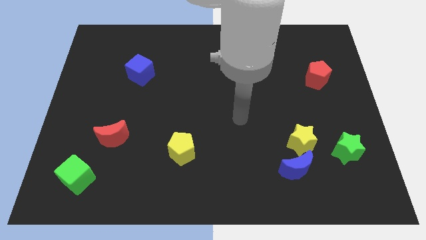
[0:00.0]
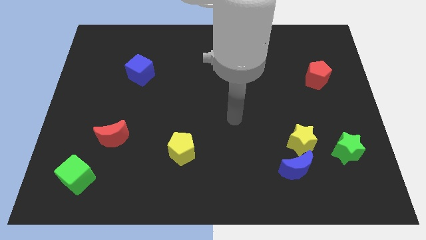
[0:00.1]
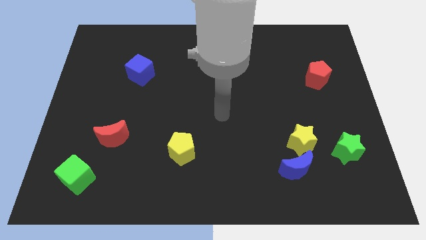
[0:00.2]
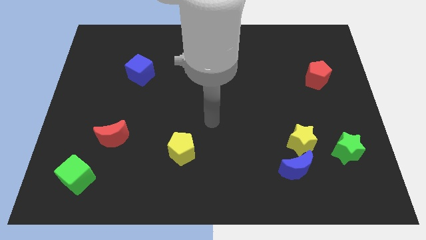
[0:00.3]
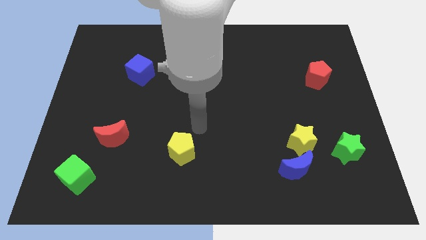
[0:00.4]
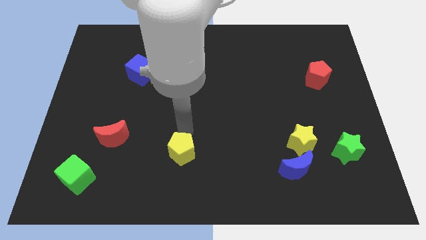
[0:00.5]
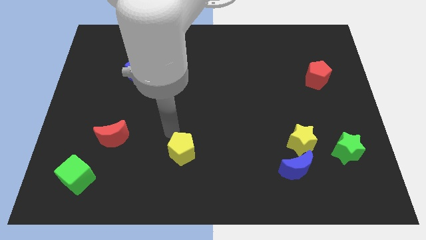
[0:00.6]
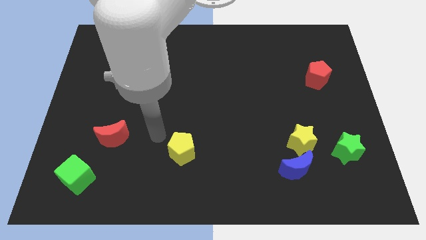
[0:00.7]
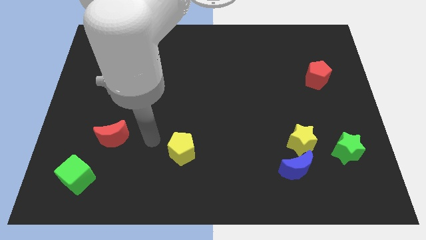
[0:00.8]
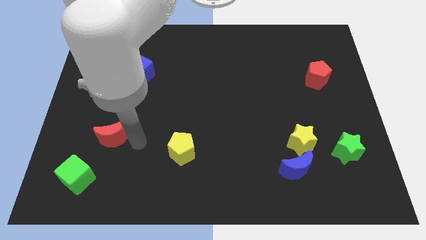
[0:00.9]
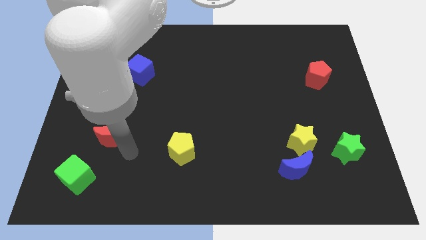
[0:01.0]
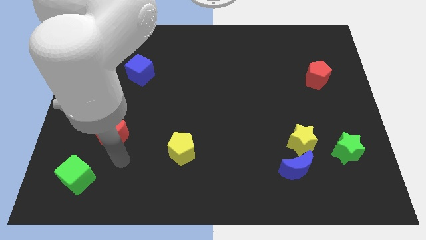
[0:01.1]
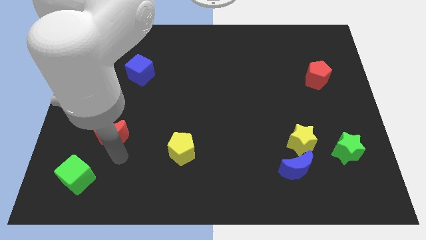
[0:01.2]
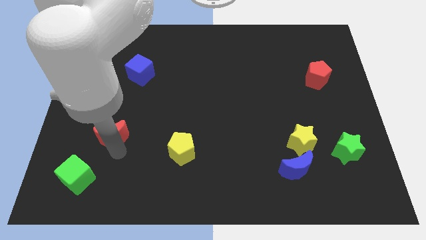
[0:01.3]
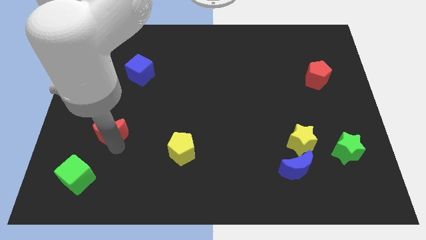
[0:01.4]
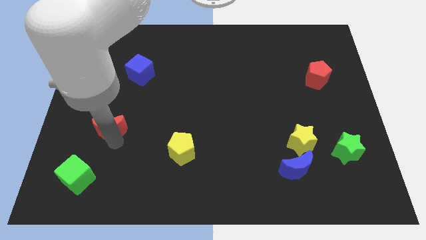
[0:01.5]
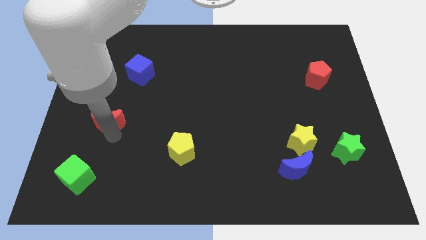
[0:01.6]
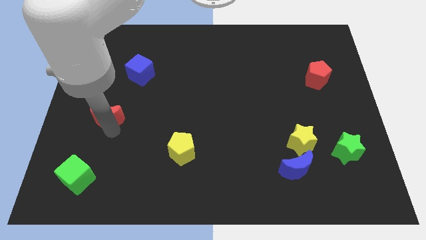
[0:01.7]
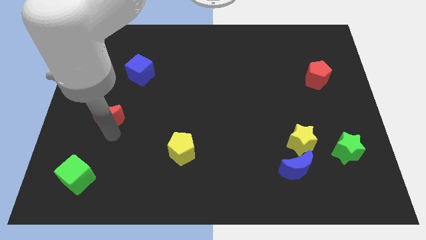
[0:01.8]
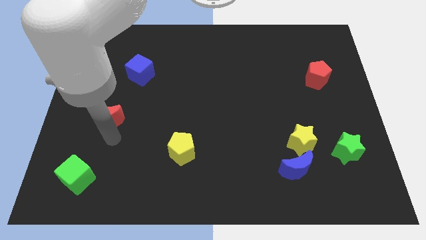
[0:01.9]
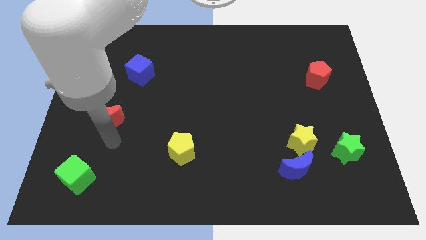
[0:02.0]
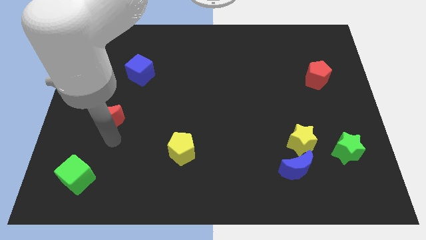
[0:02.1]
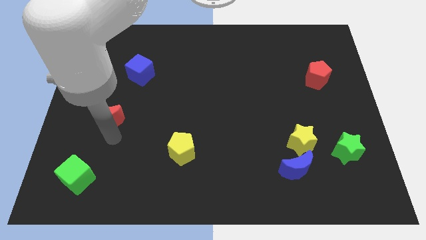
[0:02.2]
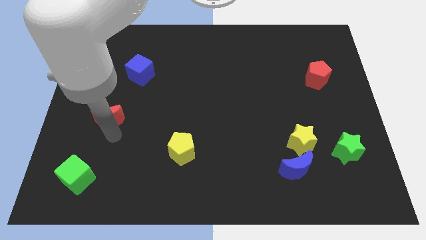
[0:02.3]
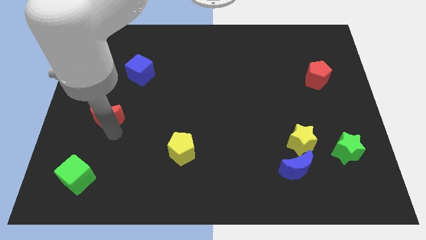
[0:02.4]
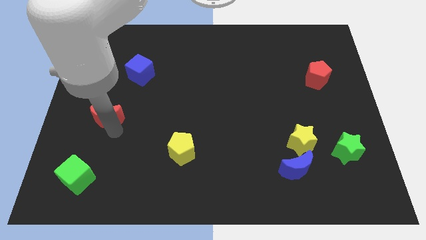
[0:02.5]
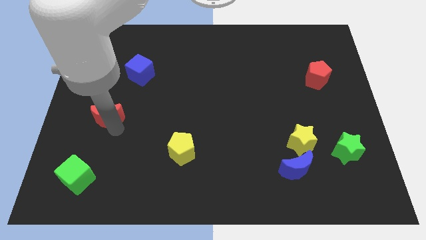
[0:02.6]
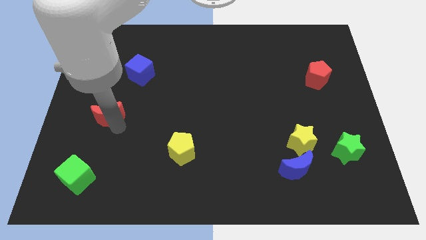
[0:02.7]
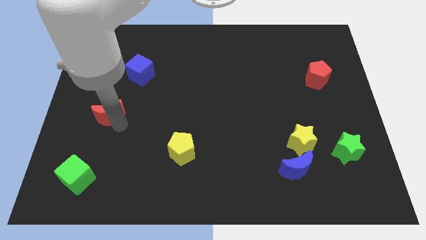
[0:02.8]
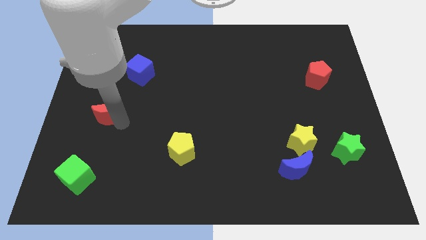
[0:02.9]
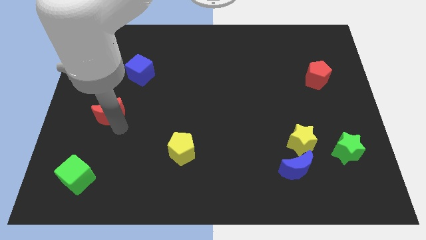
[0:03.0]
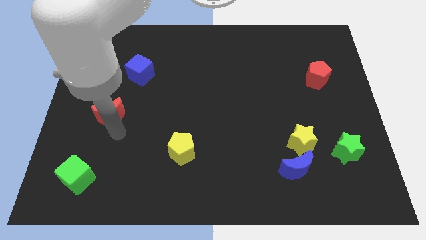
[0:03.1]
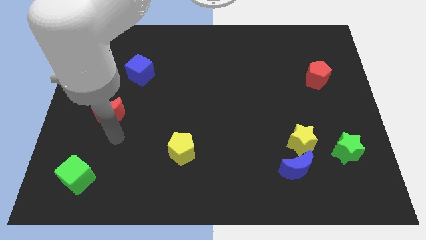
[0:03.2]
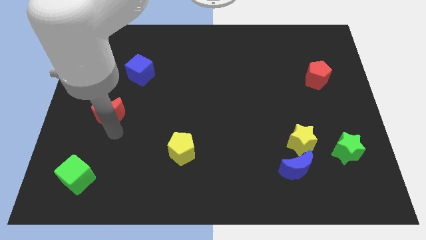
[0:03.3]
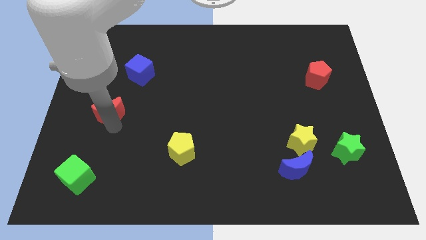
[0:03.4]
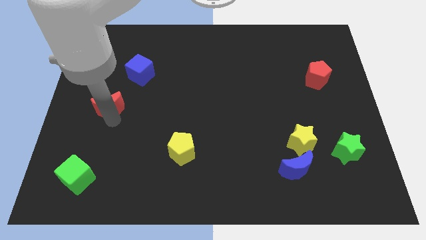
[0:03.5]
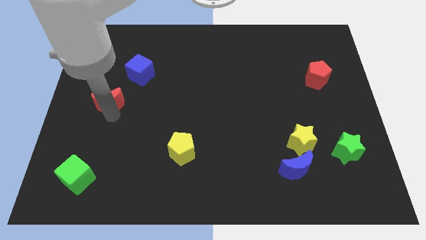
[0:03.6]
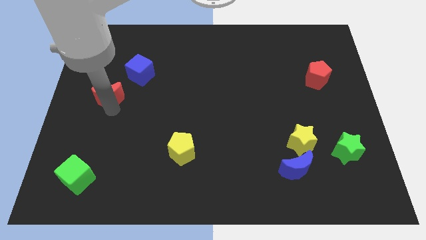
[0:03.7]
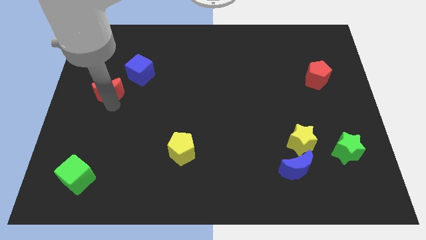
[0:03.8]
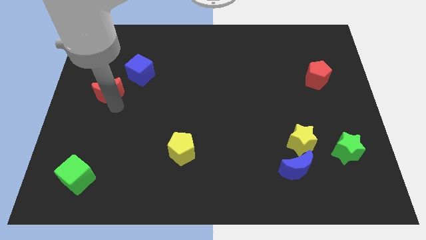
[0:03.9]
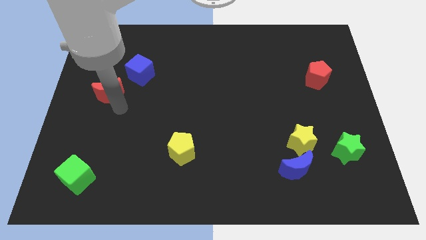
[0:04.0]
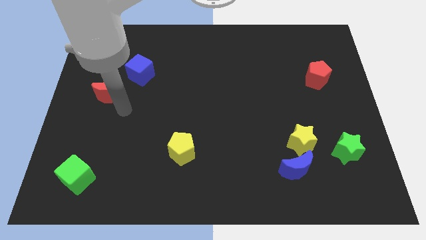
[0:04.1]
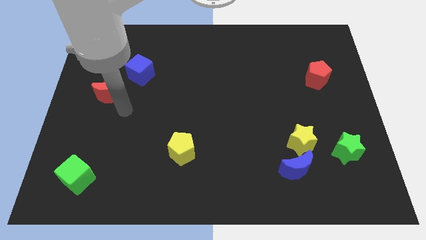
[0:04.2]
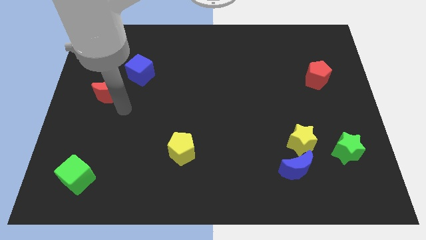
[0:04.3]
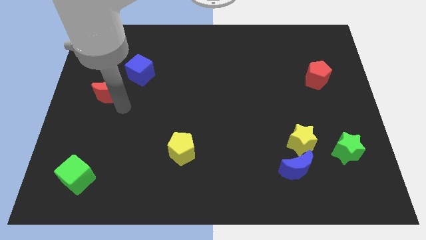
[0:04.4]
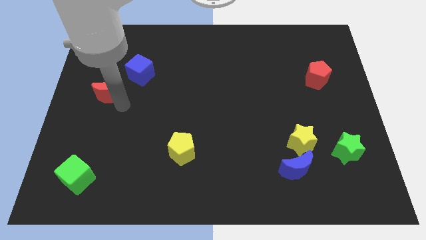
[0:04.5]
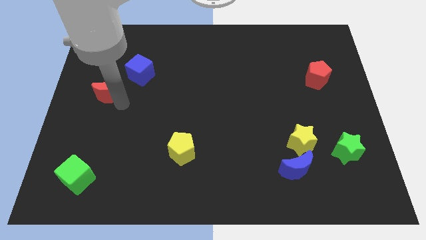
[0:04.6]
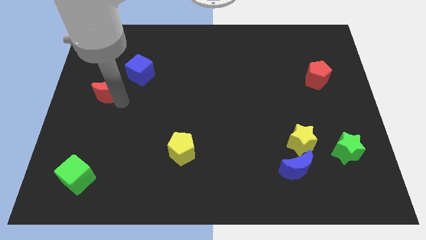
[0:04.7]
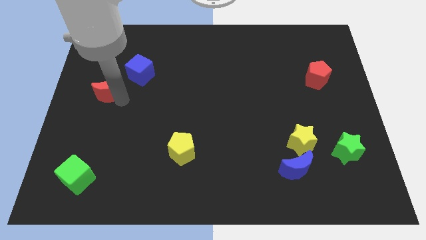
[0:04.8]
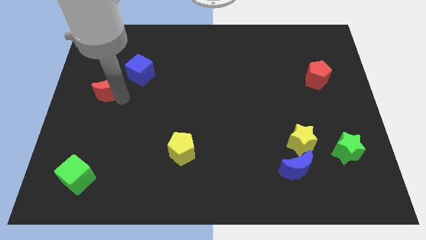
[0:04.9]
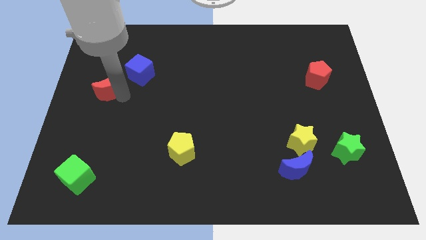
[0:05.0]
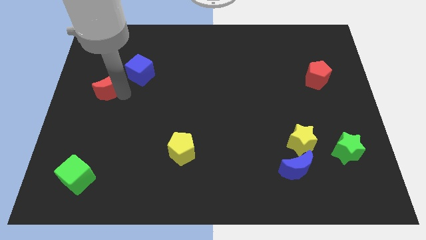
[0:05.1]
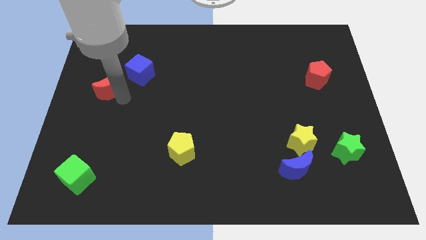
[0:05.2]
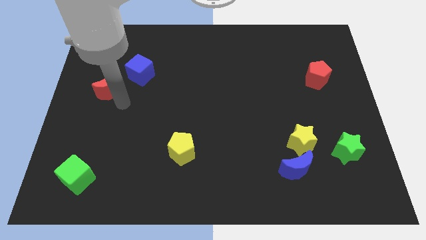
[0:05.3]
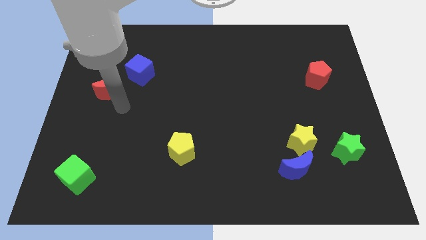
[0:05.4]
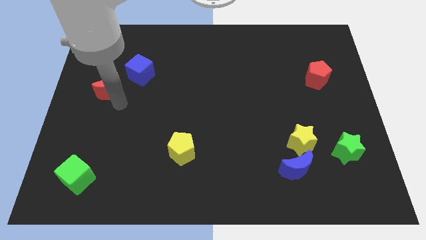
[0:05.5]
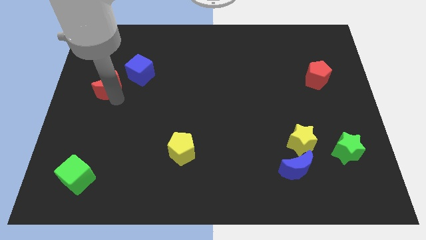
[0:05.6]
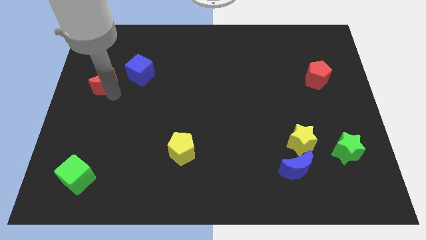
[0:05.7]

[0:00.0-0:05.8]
push the red moon to the left side of the blue cube

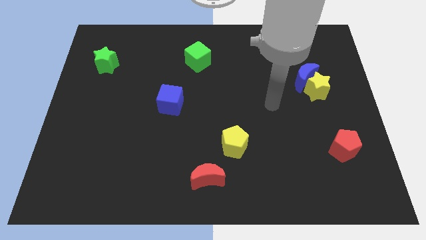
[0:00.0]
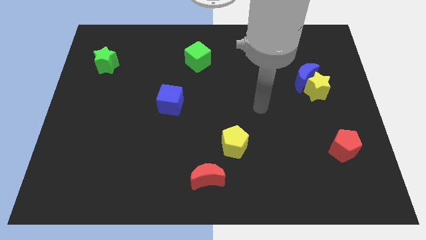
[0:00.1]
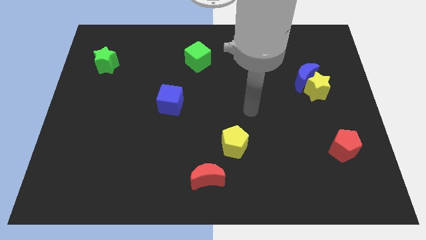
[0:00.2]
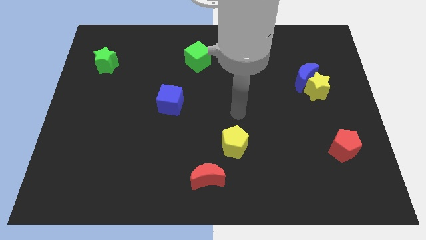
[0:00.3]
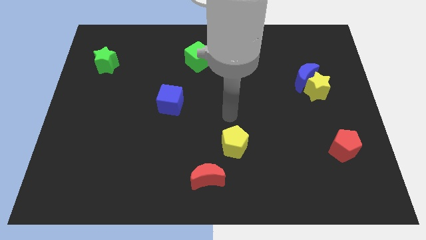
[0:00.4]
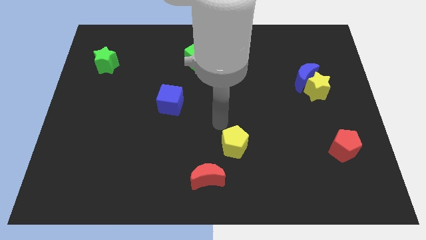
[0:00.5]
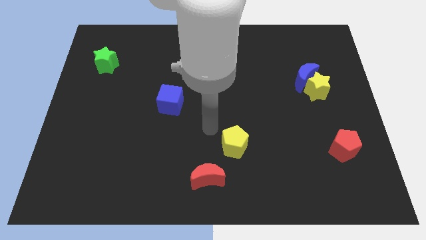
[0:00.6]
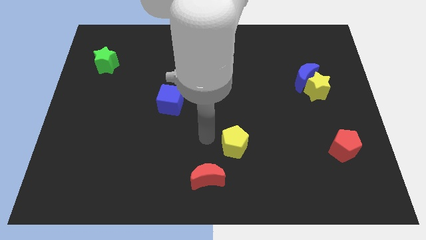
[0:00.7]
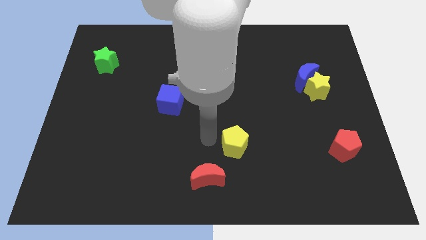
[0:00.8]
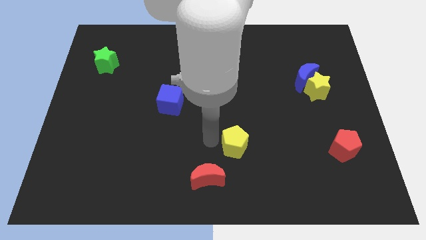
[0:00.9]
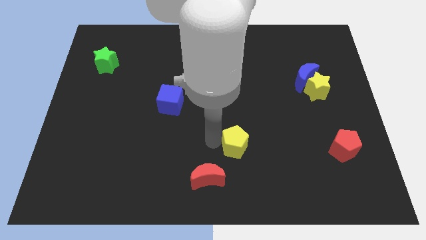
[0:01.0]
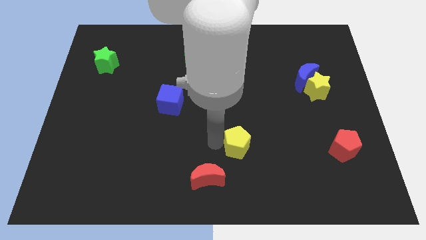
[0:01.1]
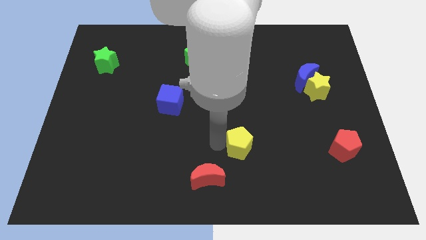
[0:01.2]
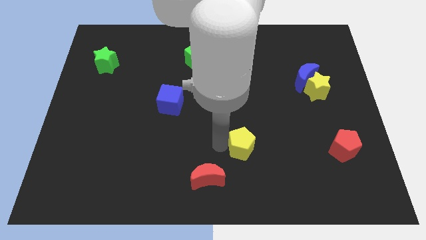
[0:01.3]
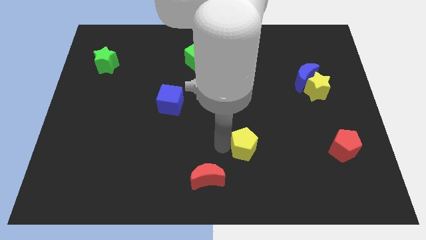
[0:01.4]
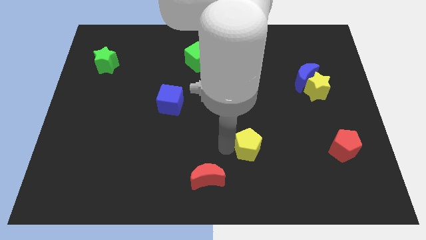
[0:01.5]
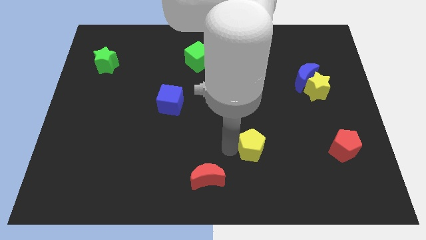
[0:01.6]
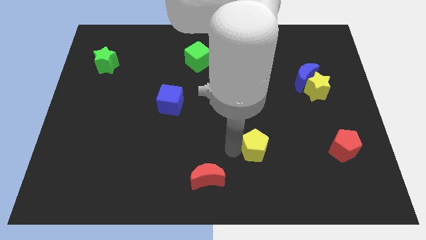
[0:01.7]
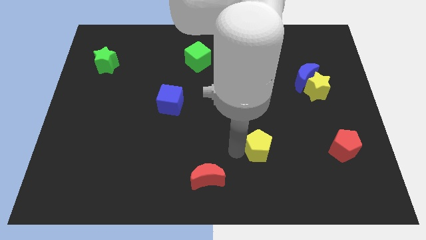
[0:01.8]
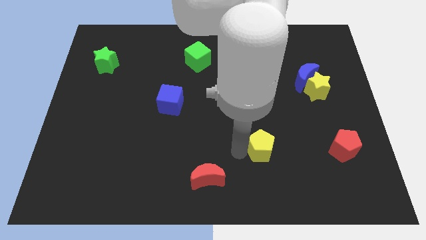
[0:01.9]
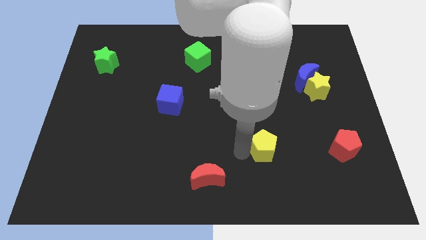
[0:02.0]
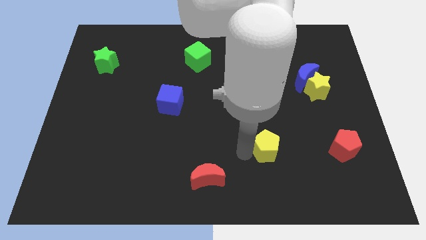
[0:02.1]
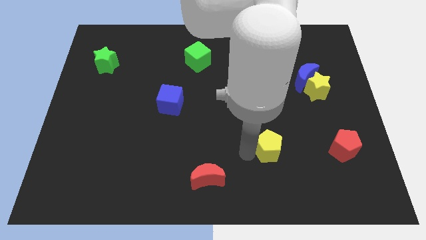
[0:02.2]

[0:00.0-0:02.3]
move the yellow pentagon just left of the red pentagon
